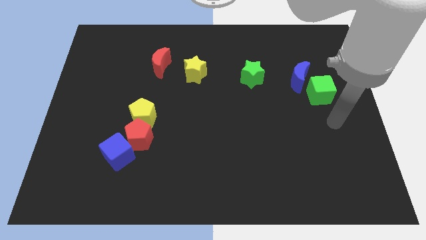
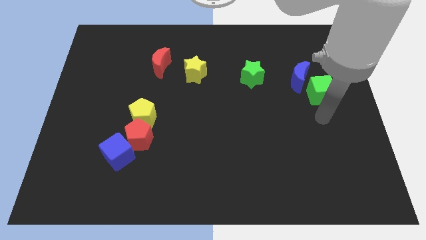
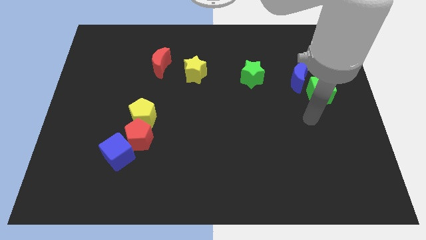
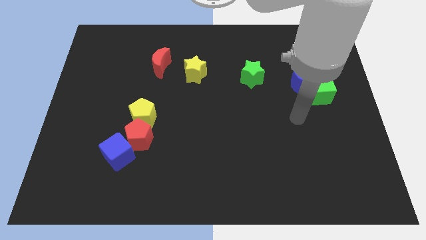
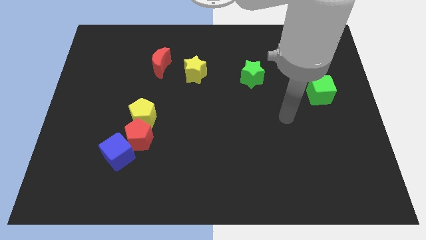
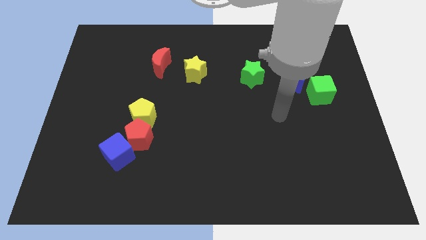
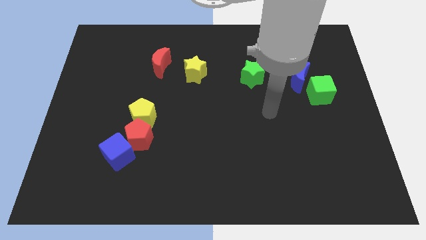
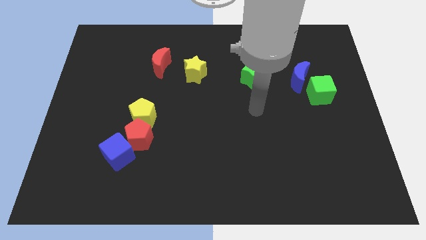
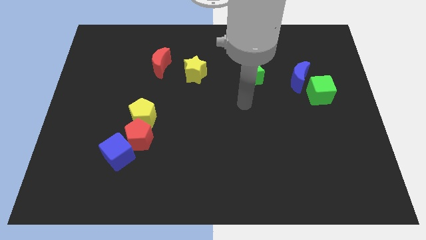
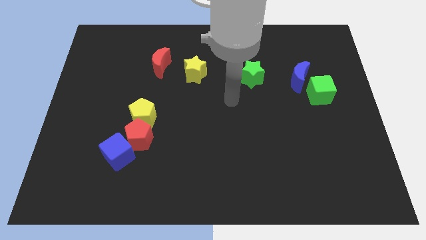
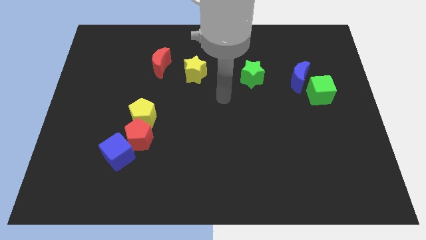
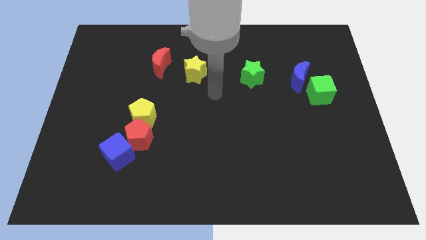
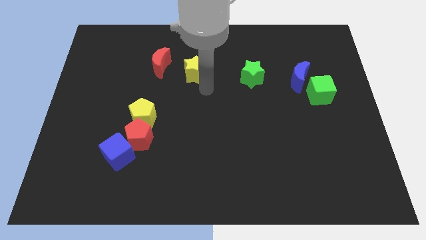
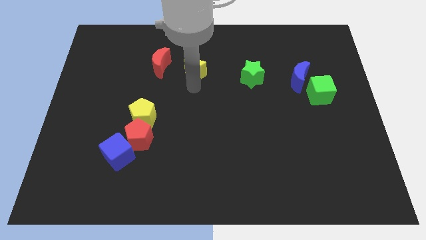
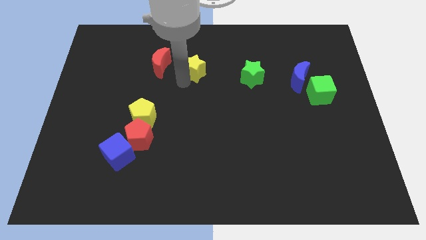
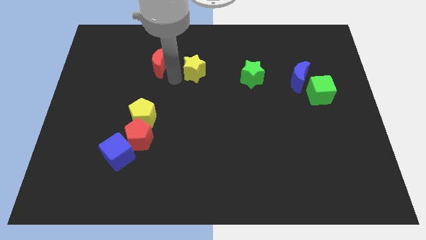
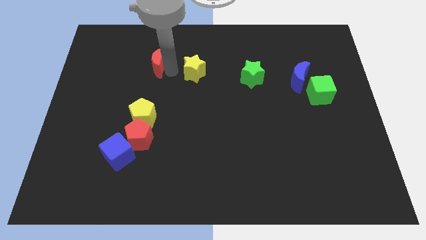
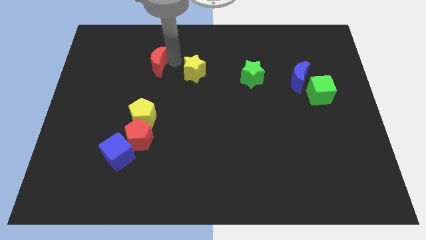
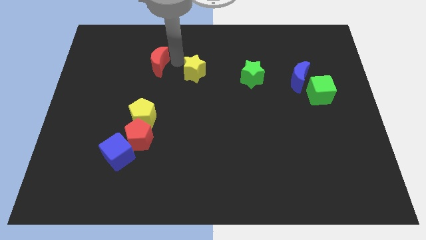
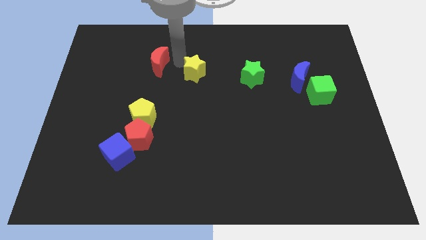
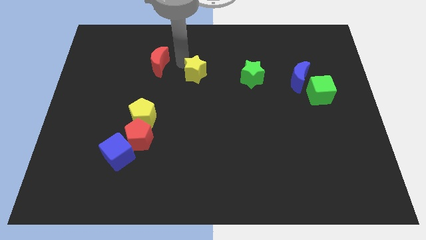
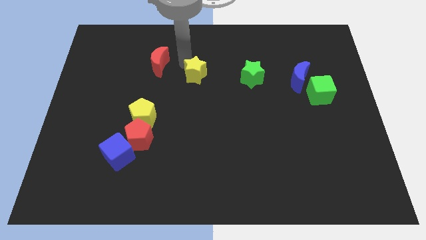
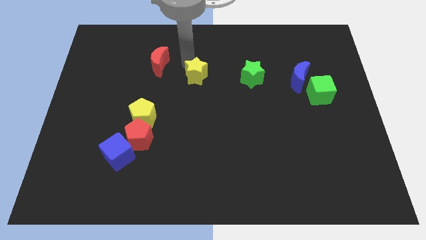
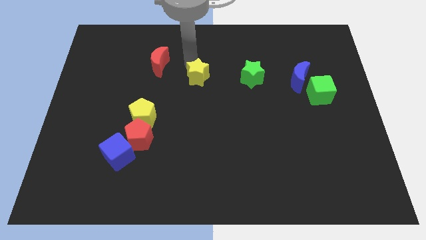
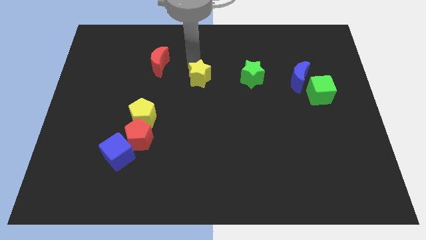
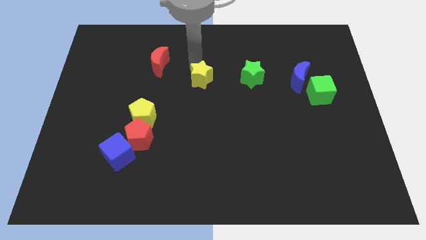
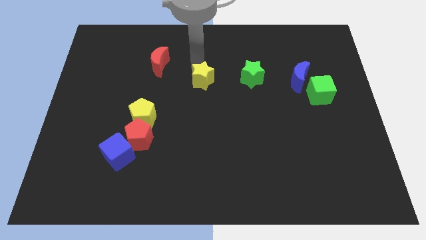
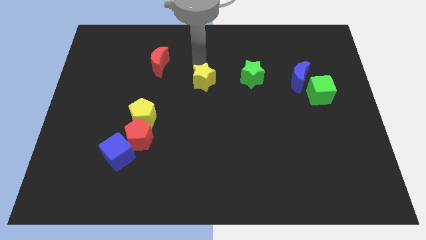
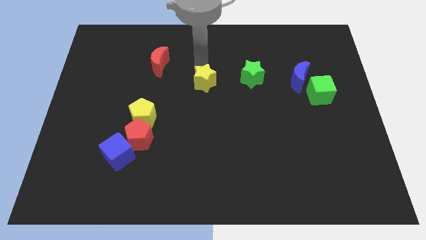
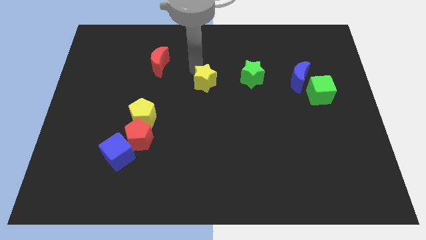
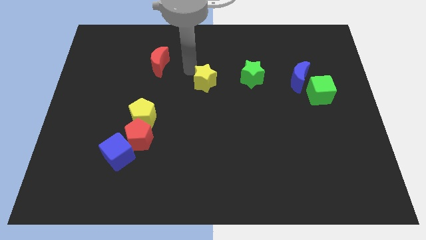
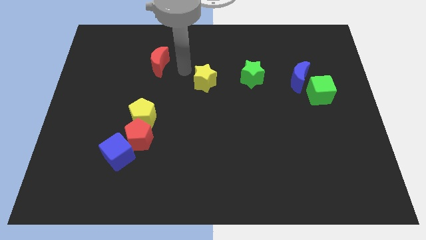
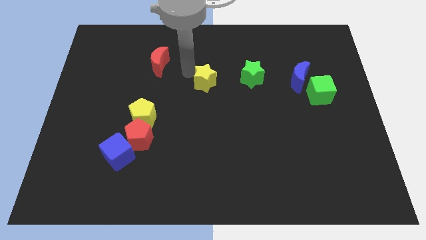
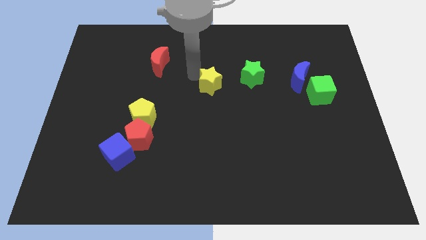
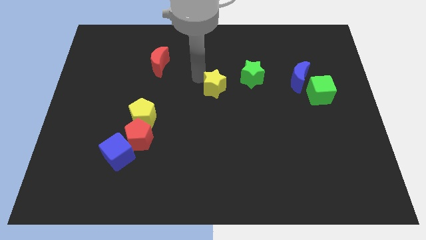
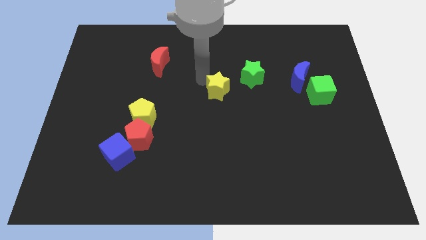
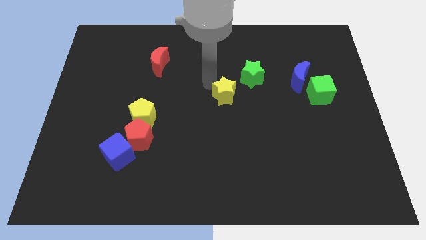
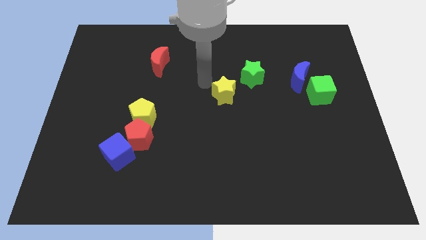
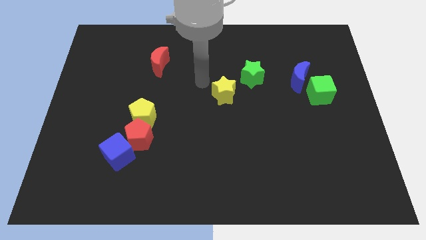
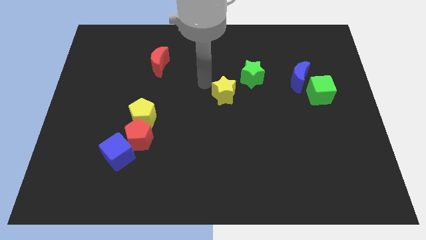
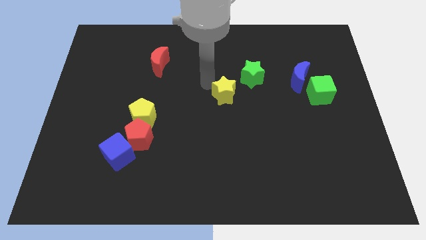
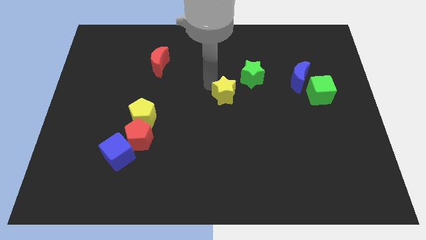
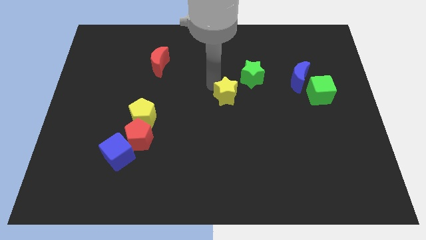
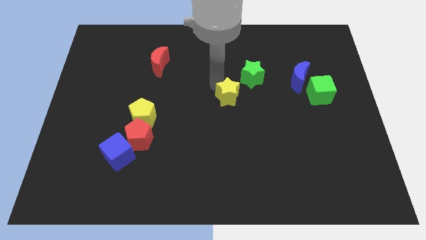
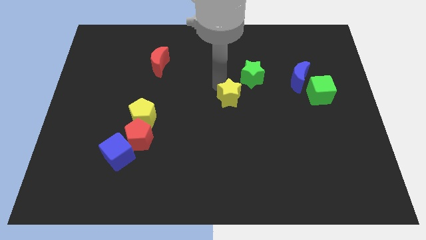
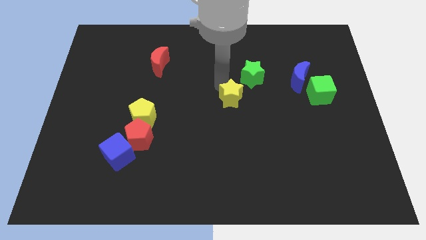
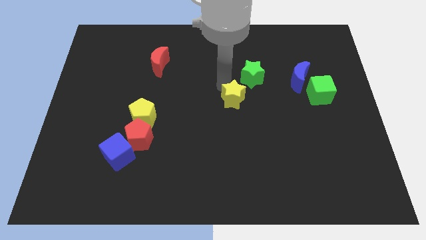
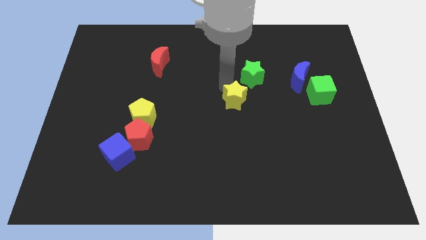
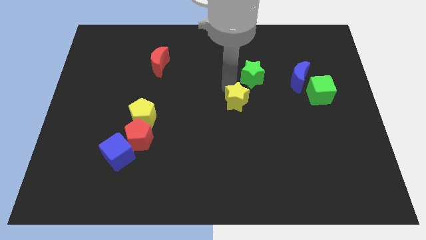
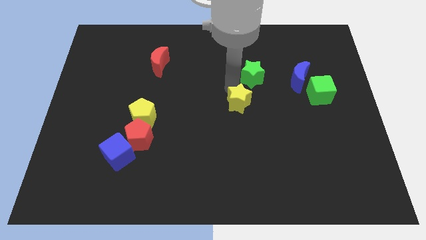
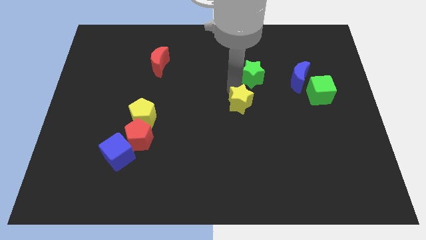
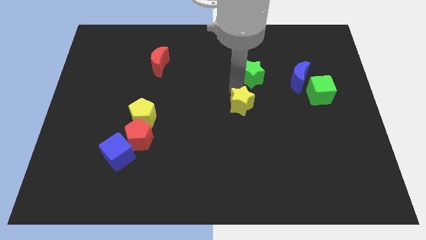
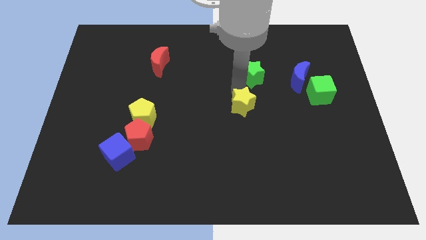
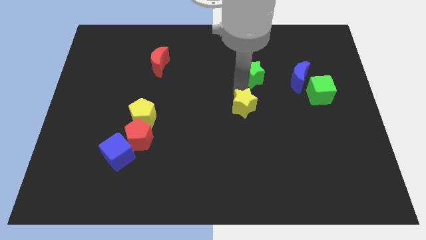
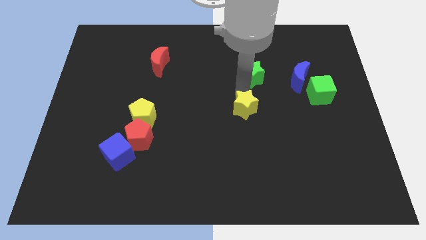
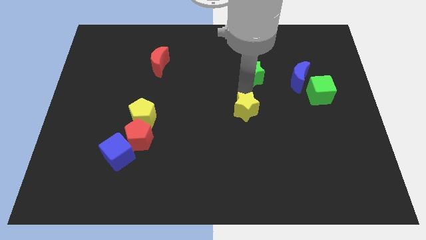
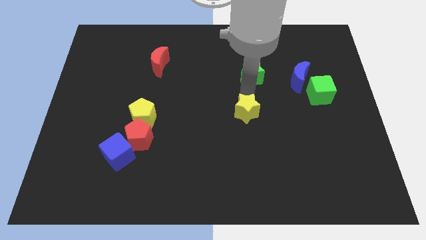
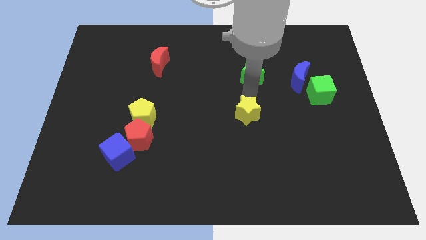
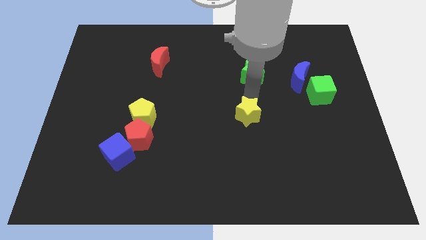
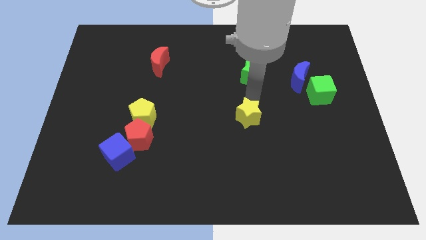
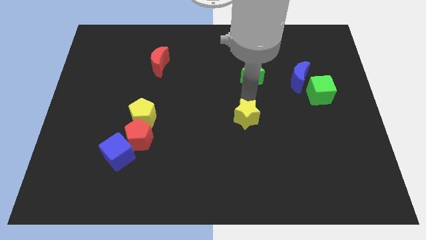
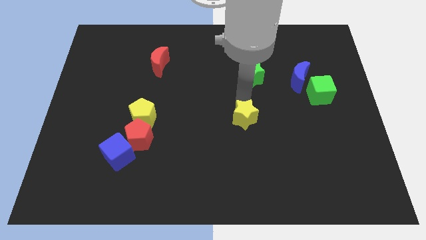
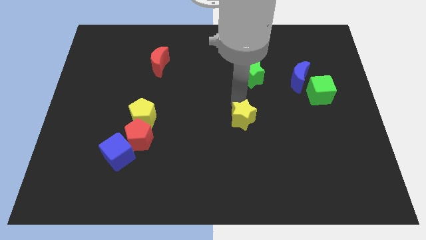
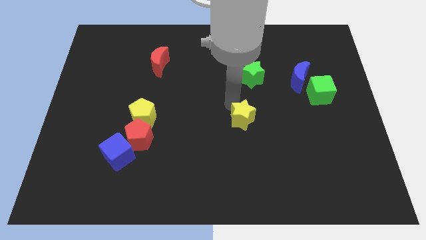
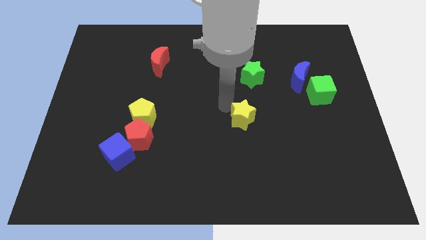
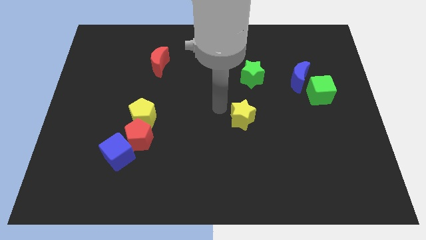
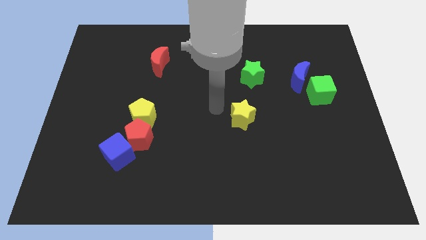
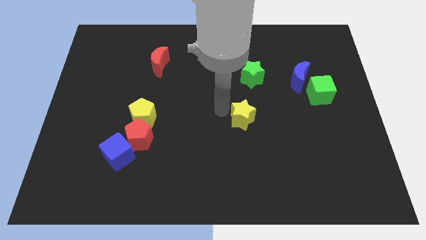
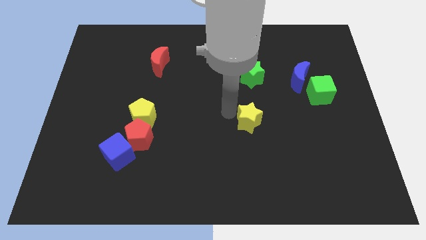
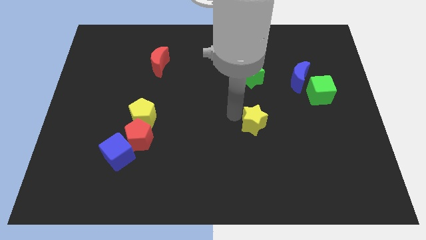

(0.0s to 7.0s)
move the yellow star downwards and to the right diagonally

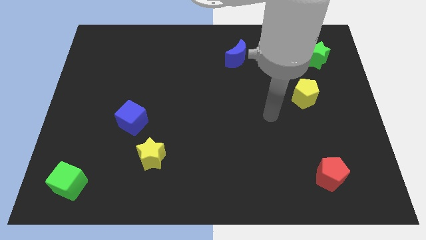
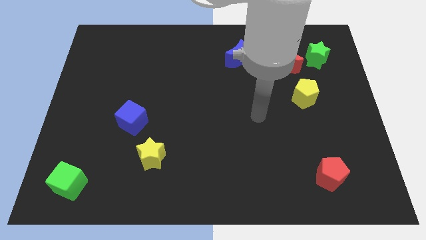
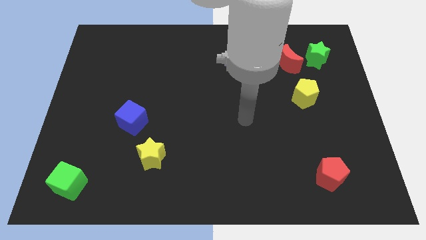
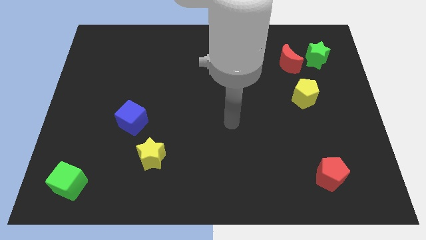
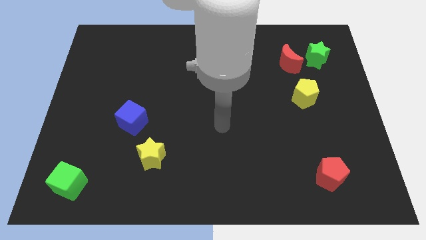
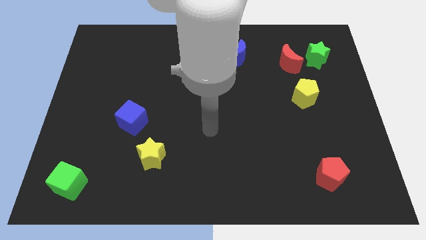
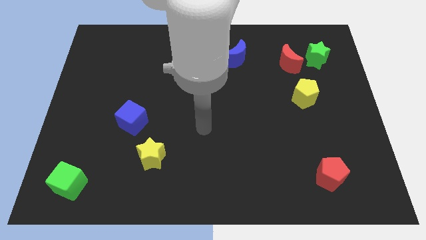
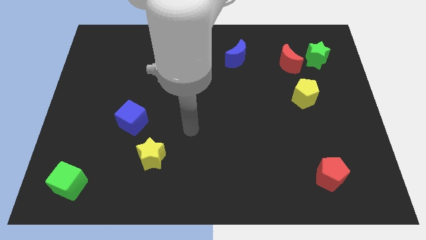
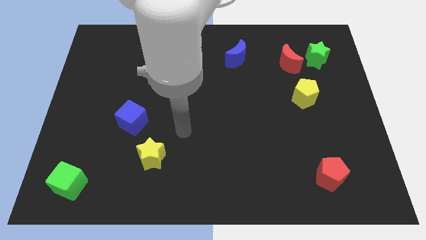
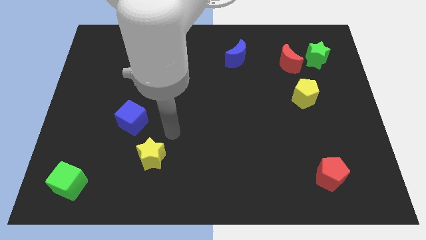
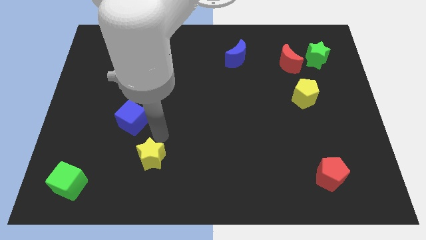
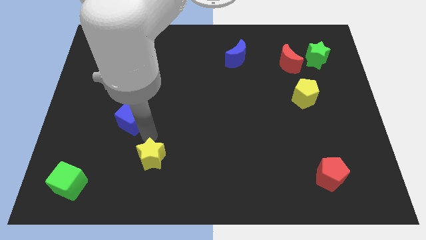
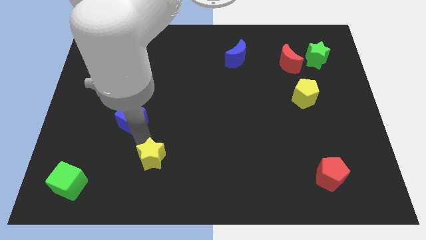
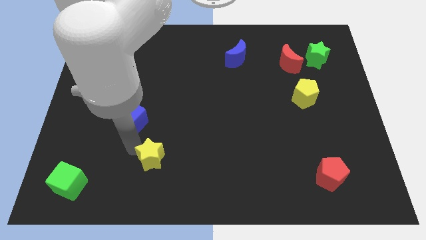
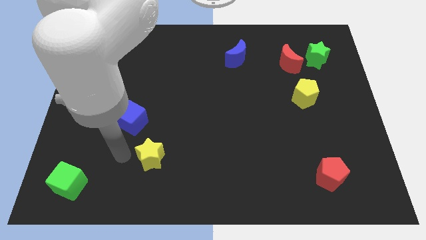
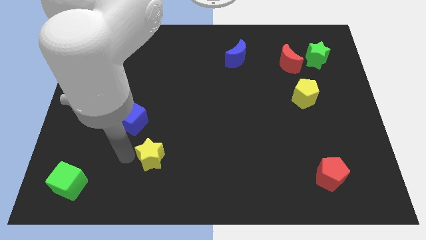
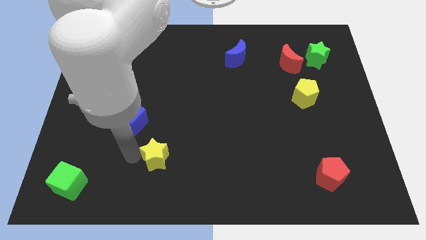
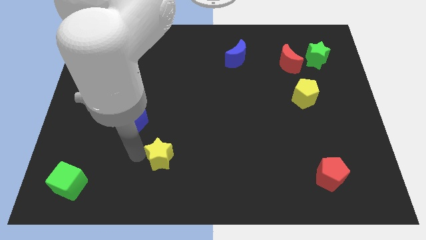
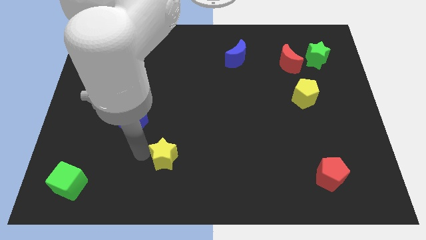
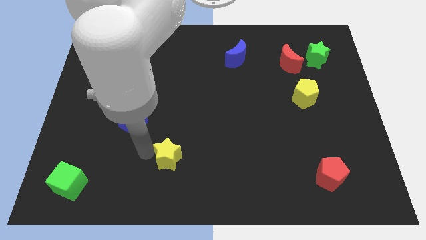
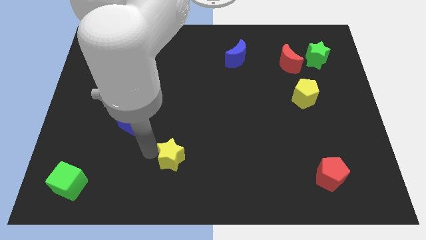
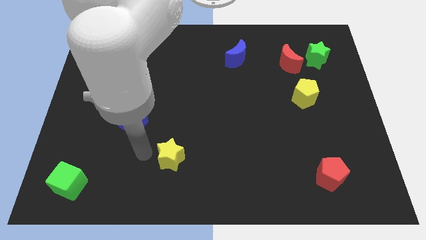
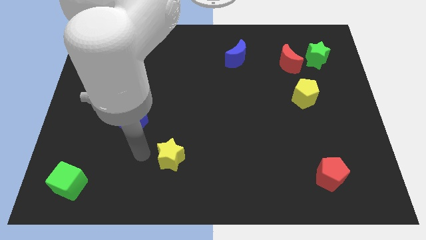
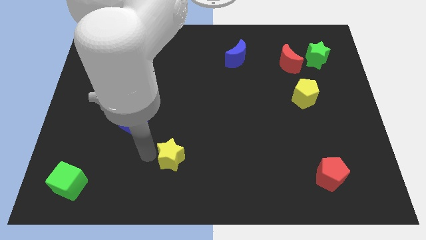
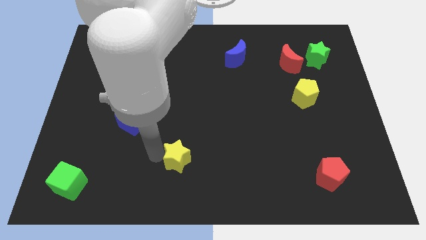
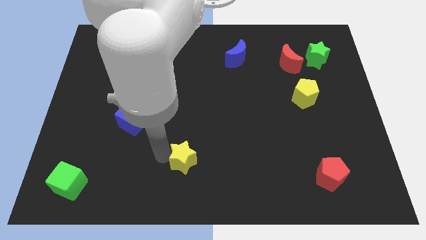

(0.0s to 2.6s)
slightly move the yellow star to the right
